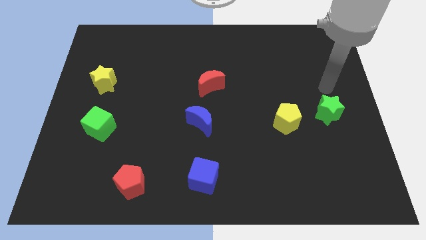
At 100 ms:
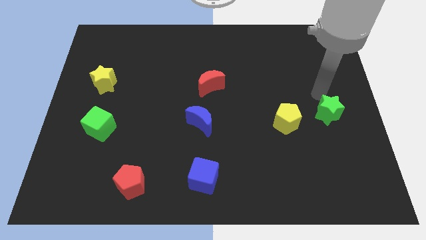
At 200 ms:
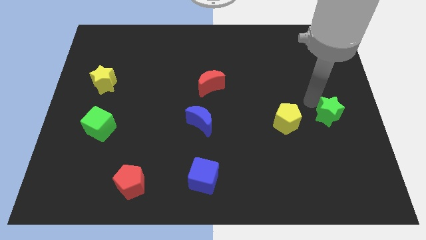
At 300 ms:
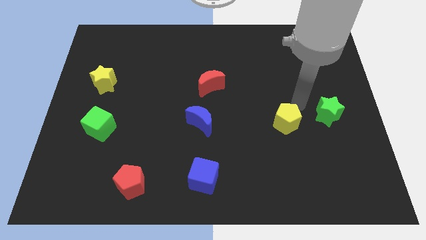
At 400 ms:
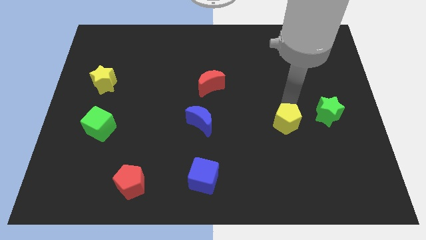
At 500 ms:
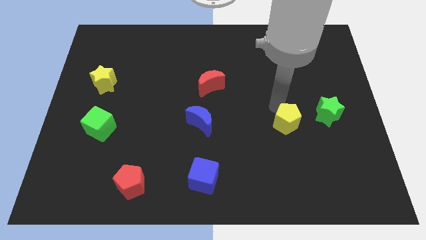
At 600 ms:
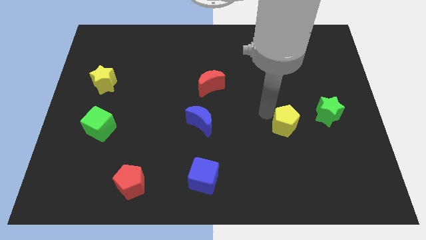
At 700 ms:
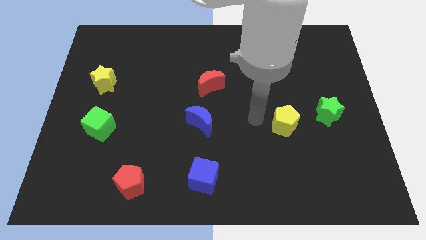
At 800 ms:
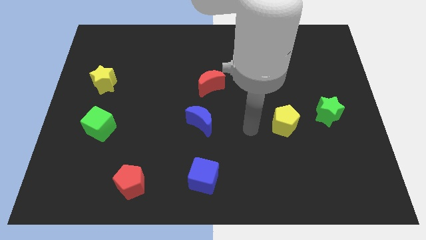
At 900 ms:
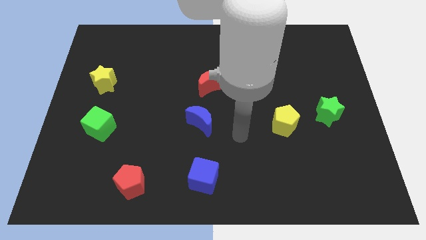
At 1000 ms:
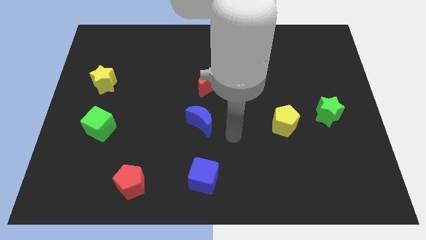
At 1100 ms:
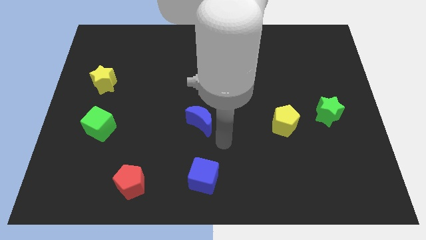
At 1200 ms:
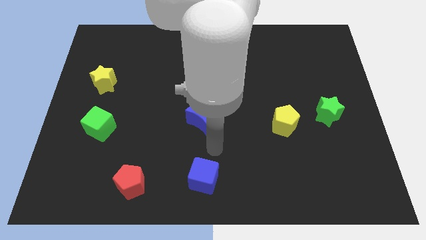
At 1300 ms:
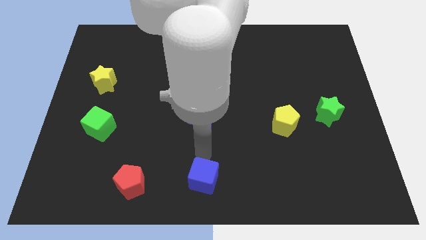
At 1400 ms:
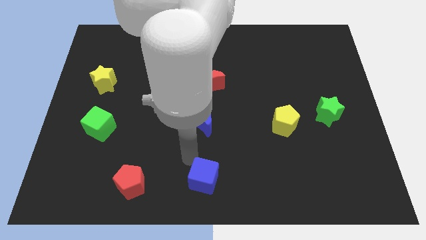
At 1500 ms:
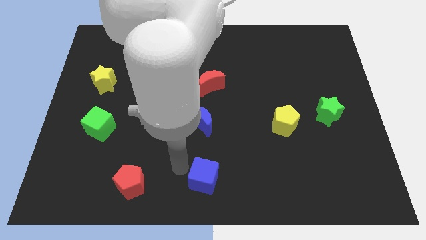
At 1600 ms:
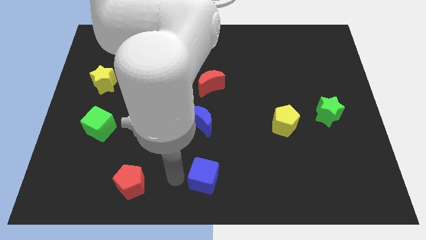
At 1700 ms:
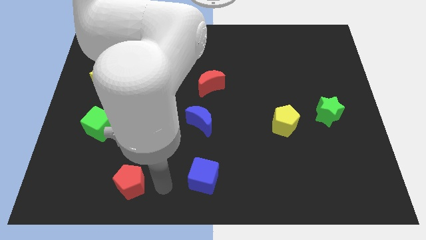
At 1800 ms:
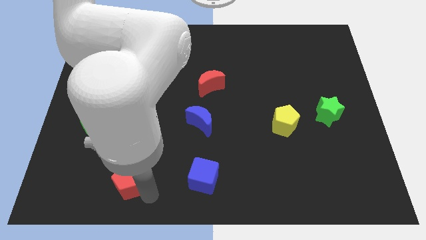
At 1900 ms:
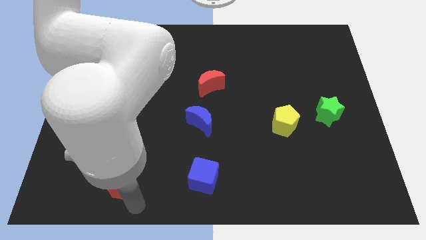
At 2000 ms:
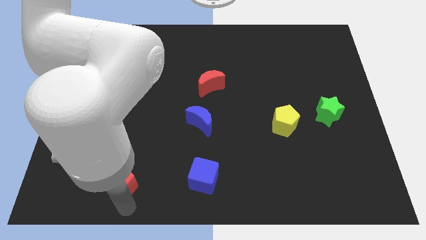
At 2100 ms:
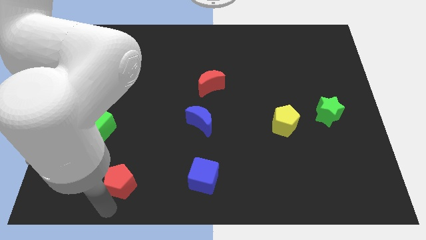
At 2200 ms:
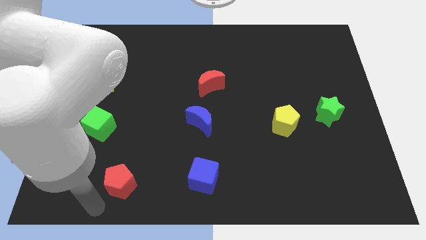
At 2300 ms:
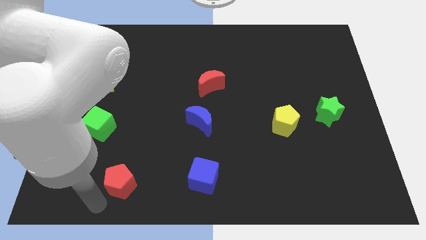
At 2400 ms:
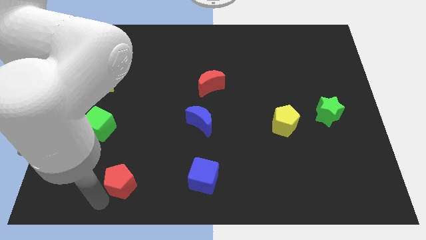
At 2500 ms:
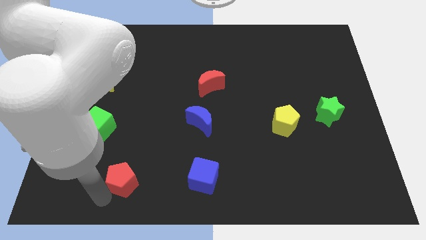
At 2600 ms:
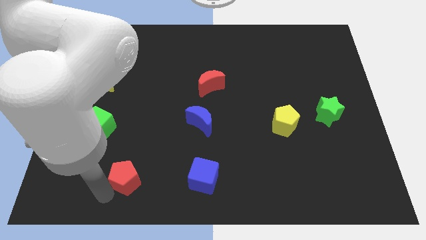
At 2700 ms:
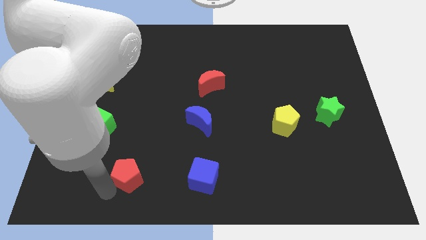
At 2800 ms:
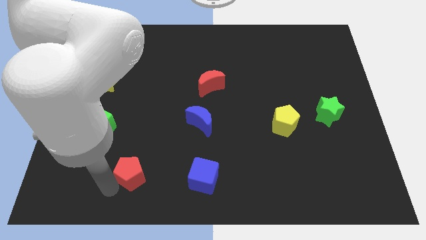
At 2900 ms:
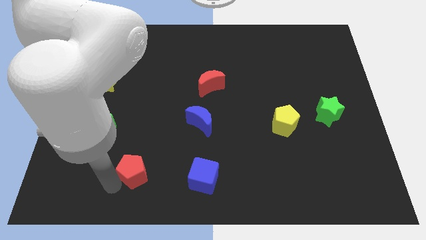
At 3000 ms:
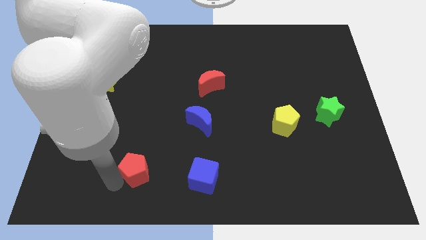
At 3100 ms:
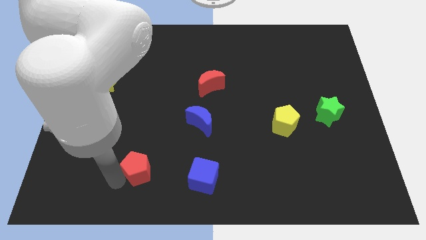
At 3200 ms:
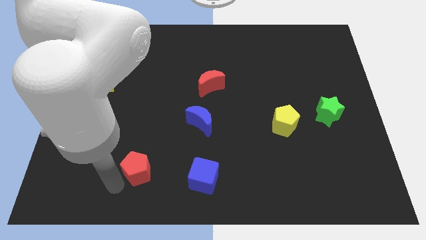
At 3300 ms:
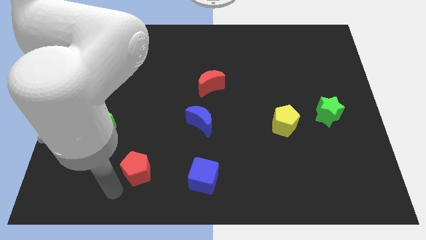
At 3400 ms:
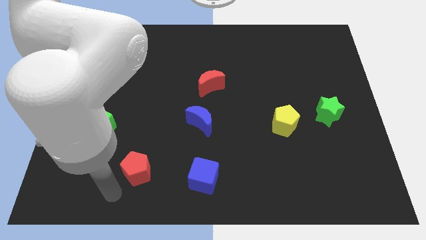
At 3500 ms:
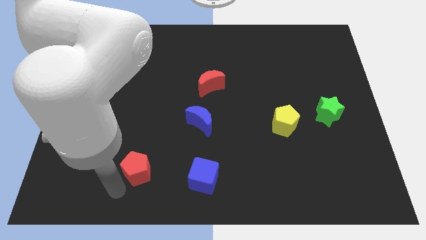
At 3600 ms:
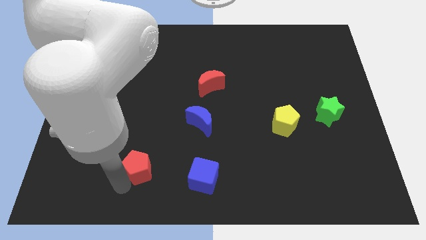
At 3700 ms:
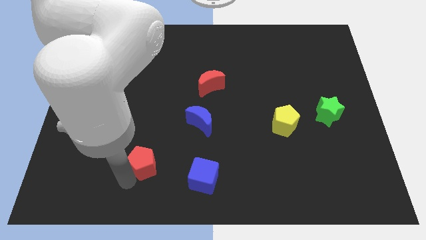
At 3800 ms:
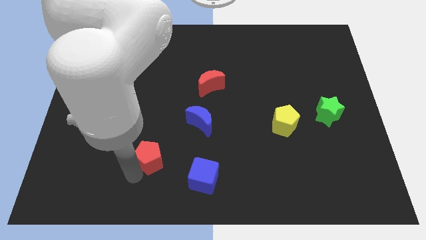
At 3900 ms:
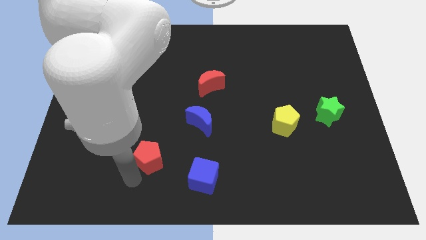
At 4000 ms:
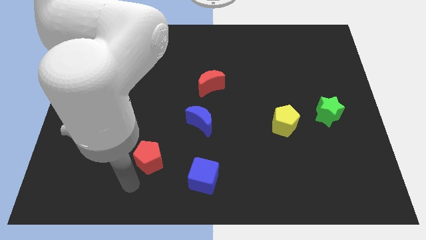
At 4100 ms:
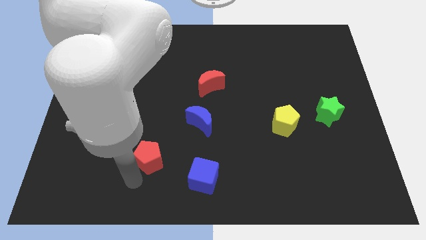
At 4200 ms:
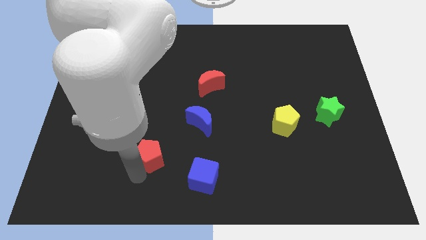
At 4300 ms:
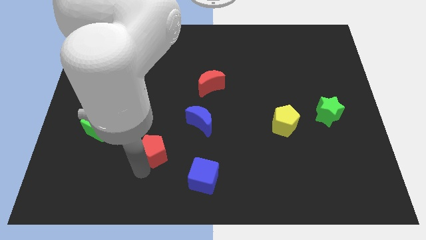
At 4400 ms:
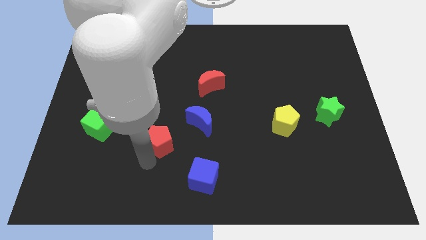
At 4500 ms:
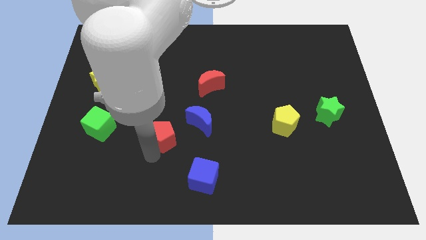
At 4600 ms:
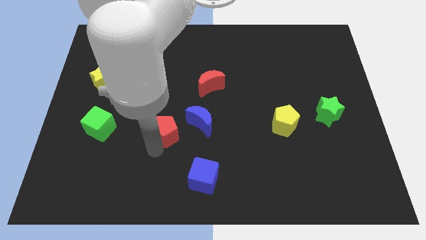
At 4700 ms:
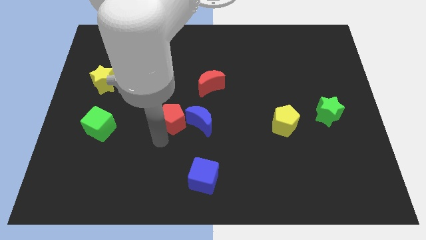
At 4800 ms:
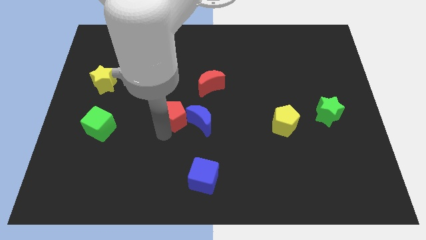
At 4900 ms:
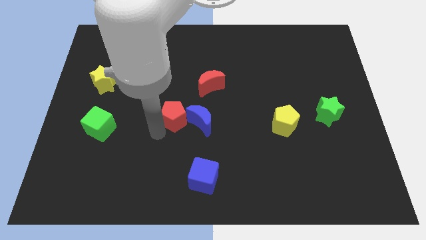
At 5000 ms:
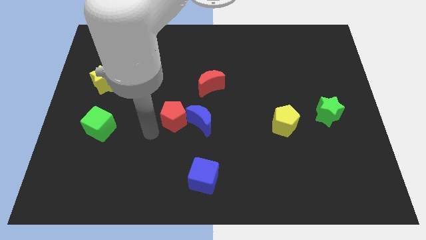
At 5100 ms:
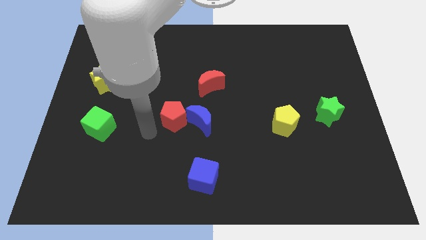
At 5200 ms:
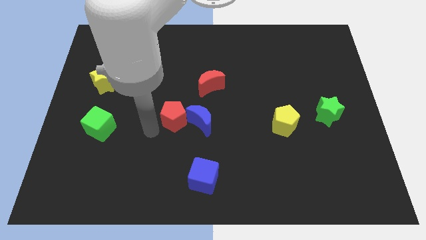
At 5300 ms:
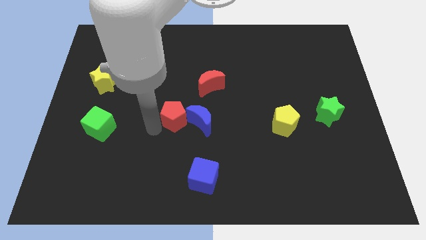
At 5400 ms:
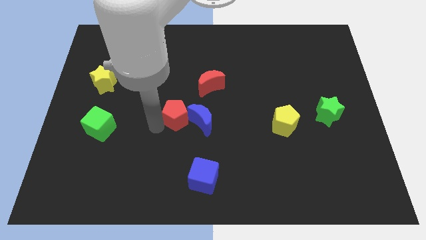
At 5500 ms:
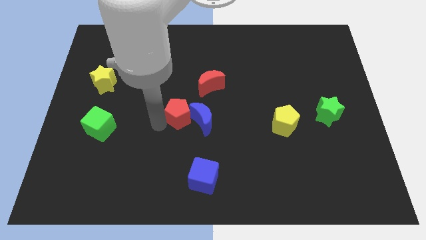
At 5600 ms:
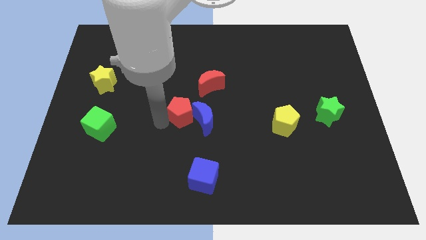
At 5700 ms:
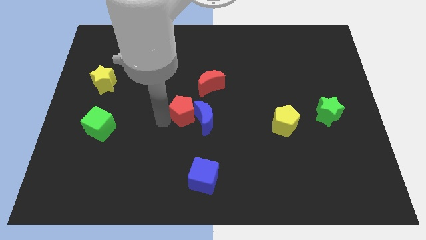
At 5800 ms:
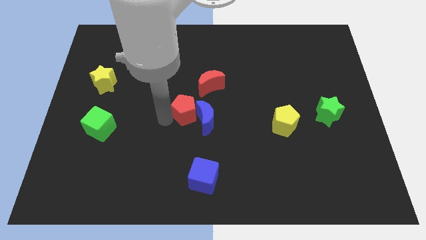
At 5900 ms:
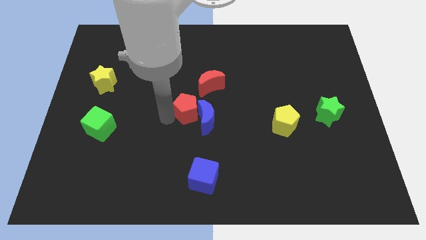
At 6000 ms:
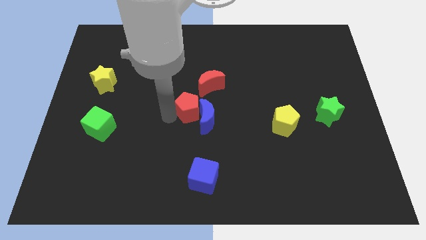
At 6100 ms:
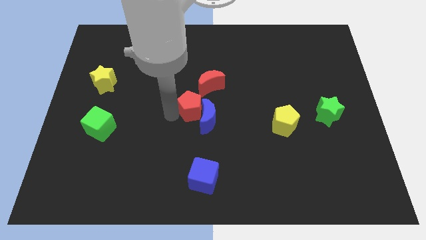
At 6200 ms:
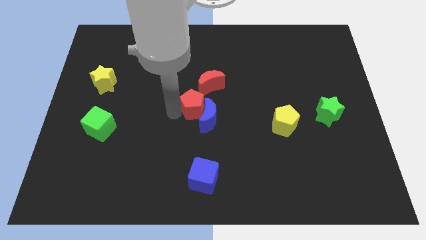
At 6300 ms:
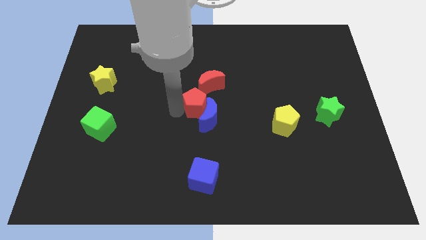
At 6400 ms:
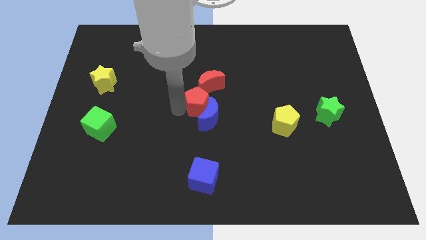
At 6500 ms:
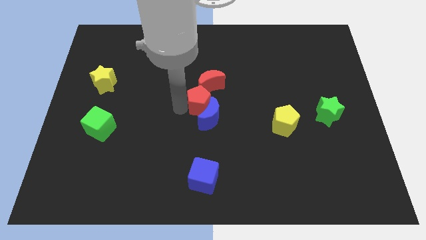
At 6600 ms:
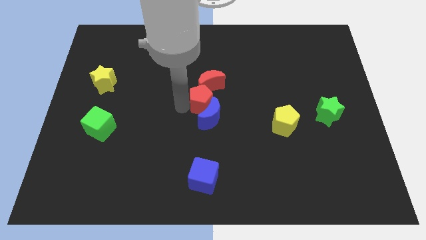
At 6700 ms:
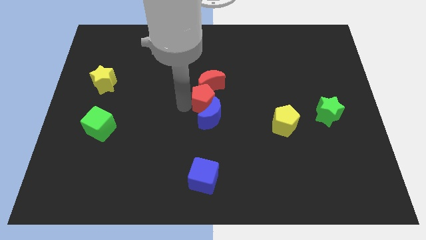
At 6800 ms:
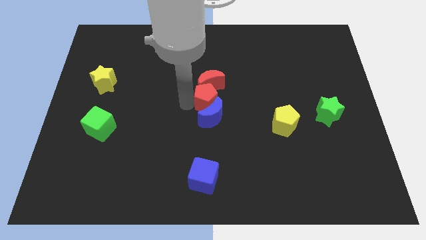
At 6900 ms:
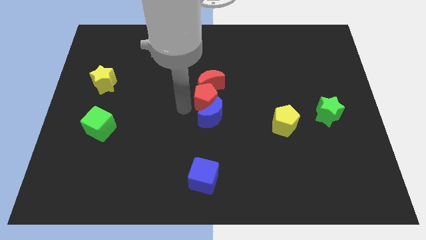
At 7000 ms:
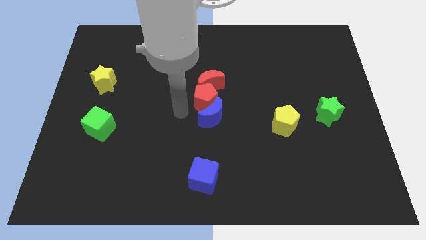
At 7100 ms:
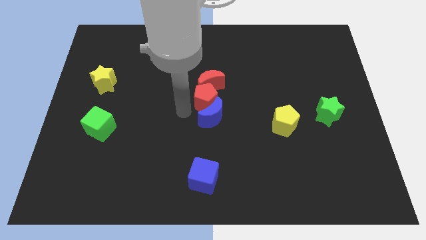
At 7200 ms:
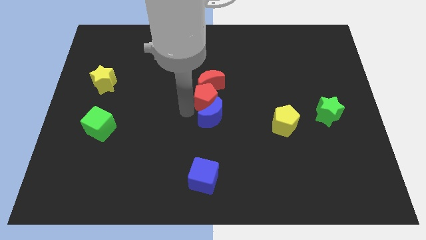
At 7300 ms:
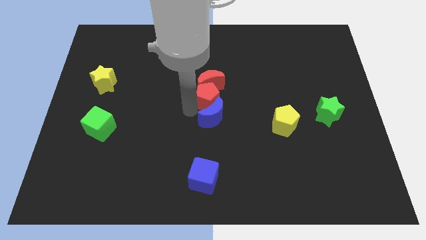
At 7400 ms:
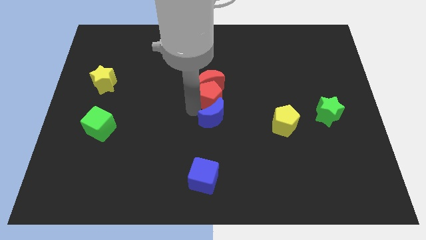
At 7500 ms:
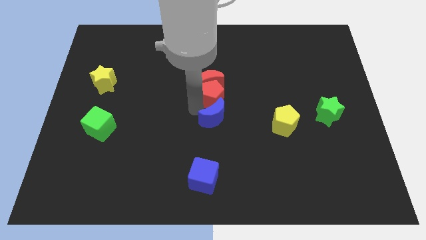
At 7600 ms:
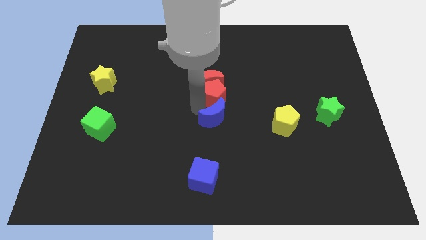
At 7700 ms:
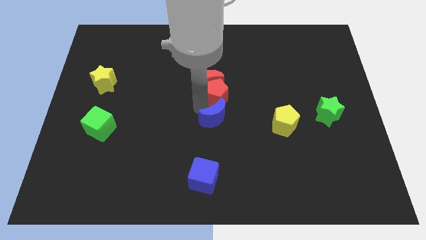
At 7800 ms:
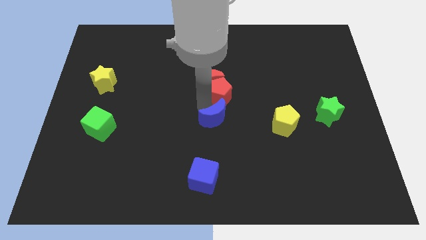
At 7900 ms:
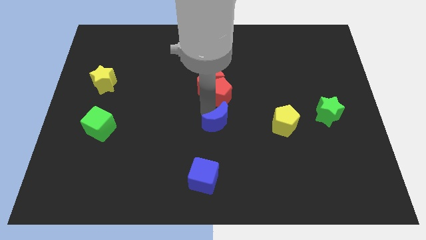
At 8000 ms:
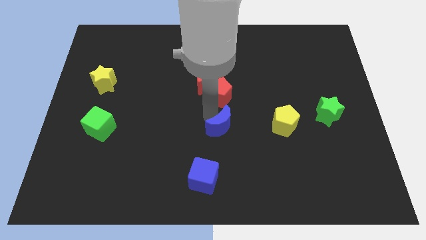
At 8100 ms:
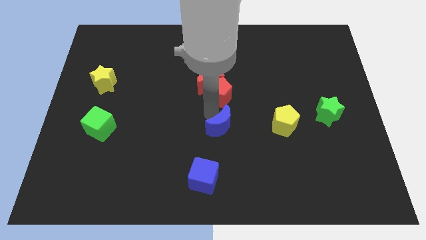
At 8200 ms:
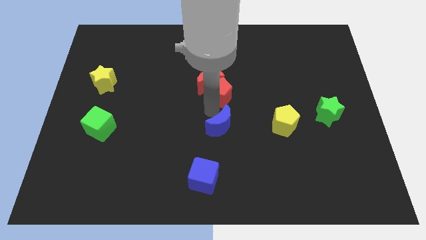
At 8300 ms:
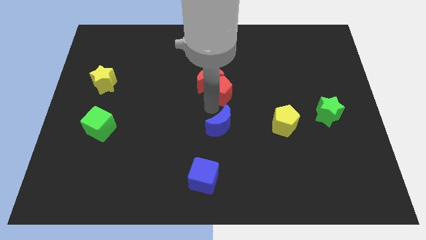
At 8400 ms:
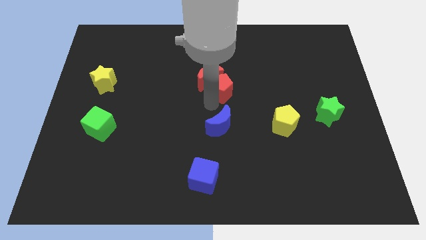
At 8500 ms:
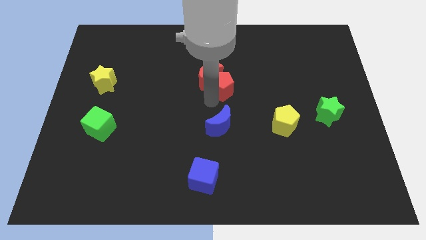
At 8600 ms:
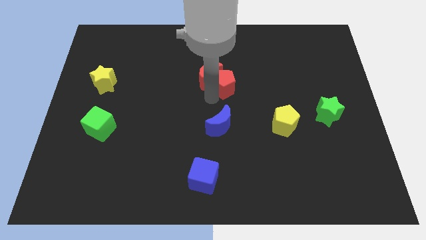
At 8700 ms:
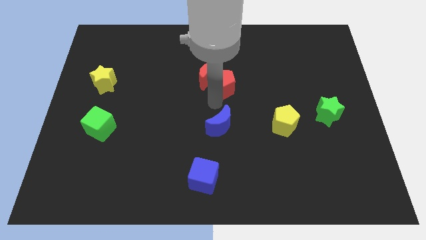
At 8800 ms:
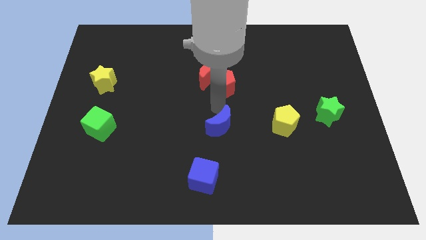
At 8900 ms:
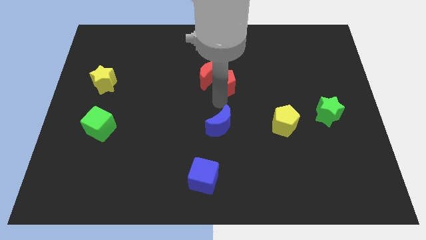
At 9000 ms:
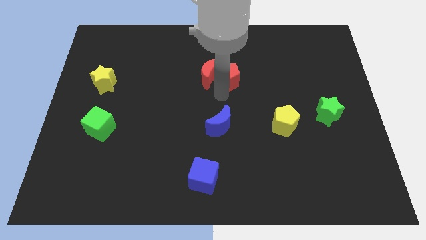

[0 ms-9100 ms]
move the red pentagon to the top right of the red moon
